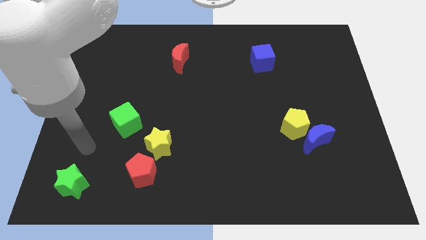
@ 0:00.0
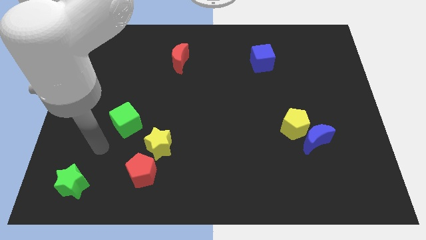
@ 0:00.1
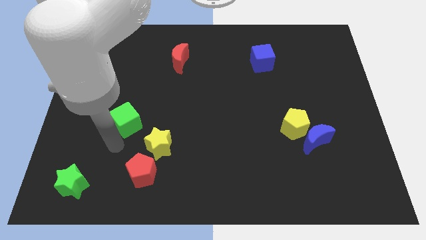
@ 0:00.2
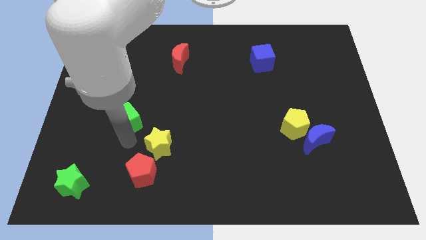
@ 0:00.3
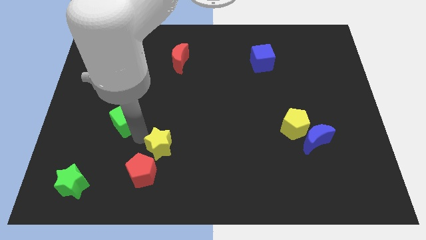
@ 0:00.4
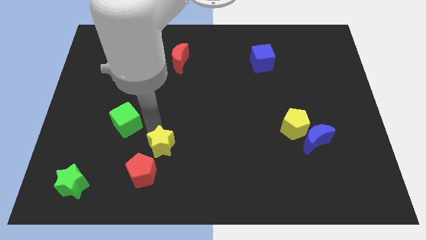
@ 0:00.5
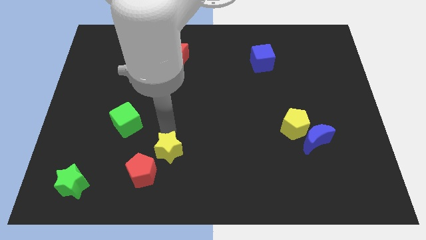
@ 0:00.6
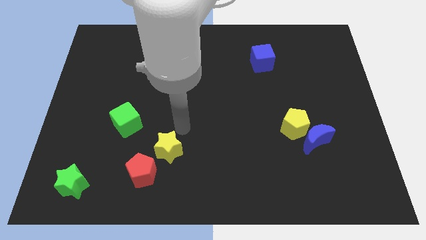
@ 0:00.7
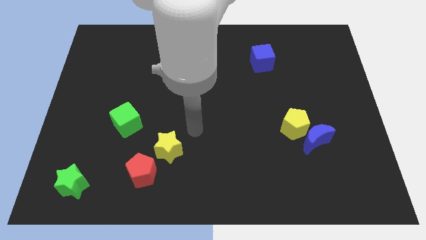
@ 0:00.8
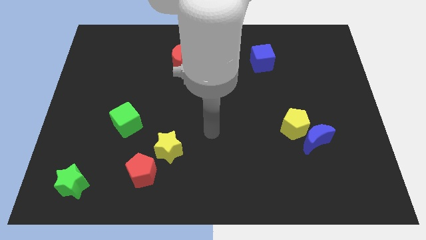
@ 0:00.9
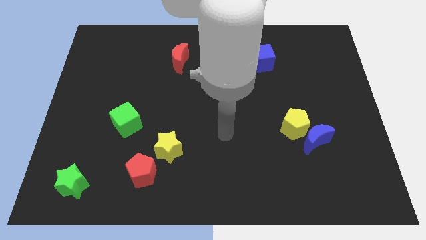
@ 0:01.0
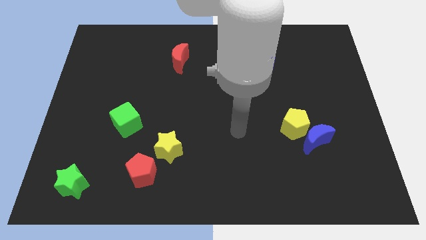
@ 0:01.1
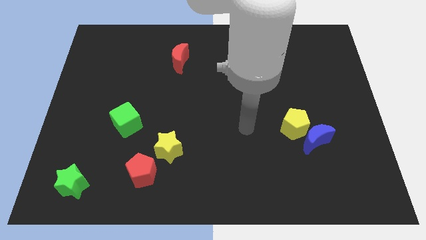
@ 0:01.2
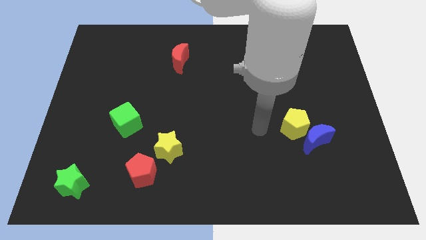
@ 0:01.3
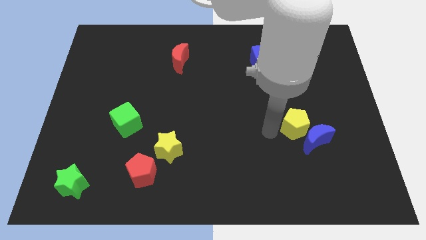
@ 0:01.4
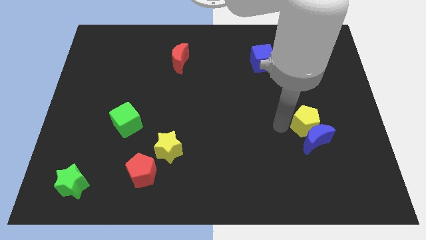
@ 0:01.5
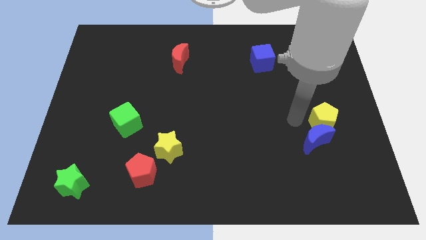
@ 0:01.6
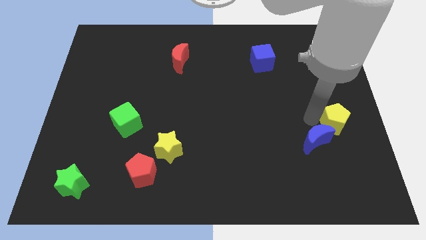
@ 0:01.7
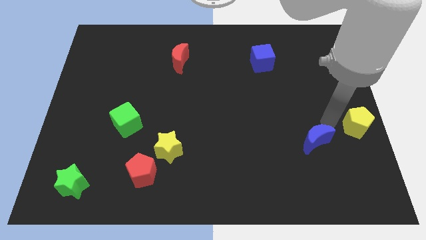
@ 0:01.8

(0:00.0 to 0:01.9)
move the blue moon away from the yellow pentagon

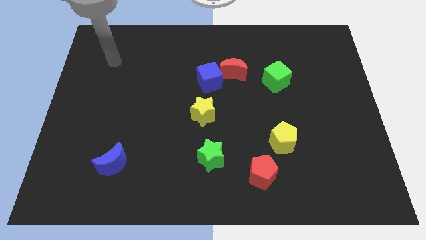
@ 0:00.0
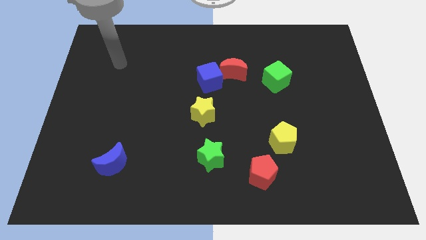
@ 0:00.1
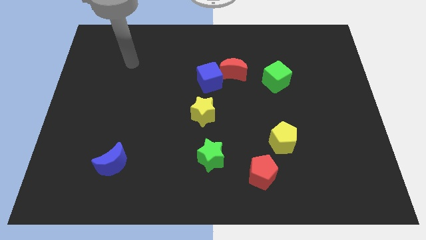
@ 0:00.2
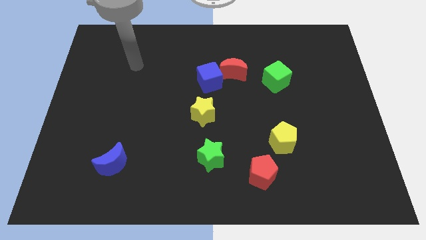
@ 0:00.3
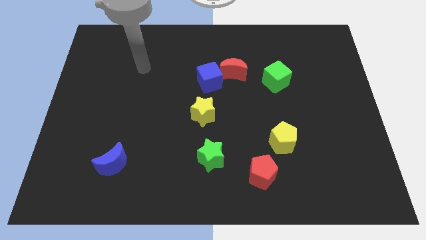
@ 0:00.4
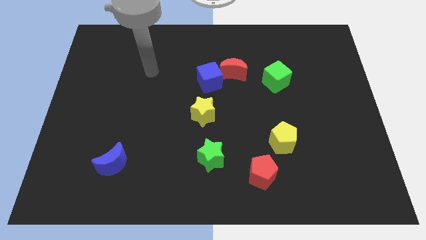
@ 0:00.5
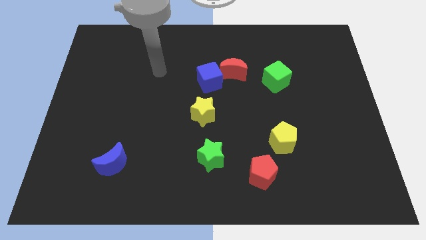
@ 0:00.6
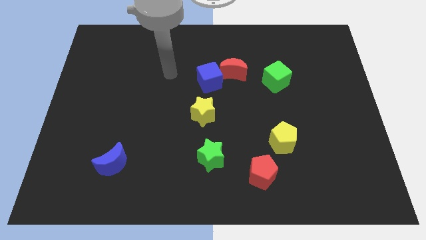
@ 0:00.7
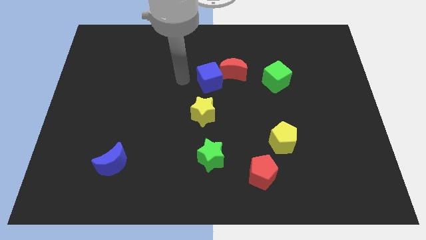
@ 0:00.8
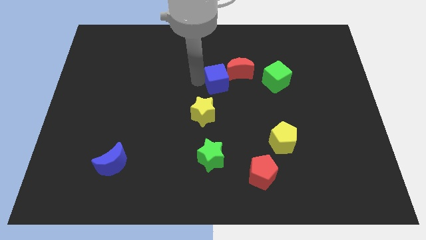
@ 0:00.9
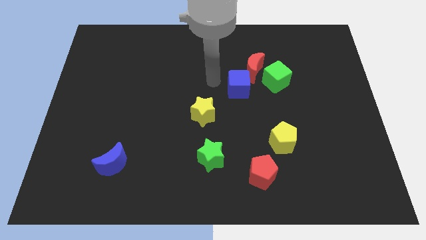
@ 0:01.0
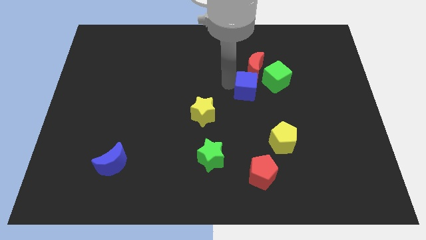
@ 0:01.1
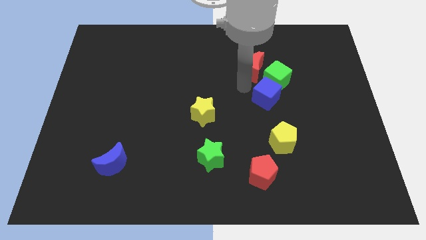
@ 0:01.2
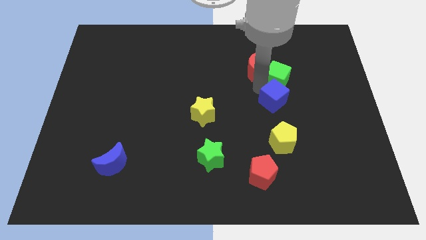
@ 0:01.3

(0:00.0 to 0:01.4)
separate the red moon from the blue cube

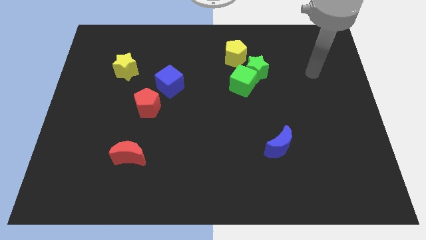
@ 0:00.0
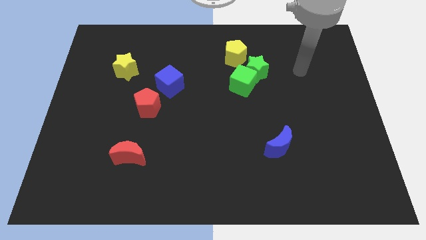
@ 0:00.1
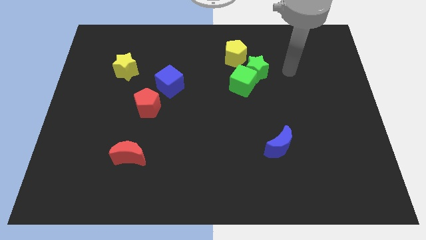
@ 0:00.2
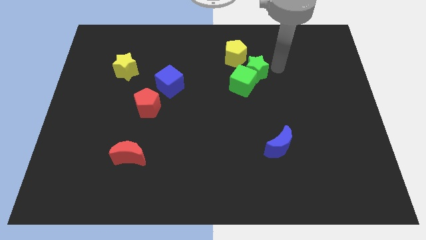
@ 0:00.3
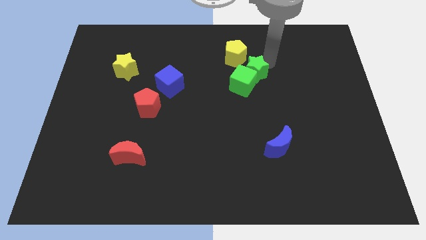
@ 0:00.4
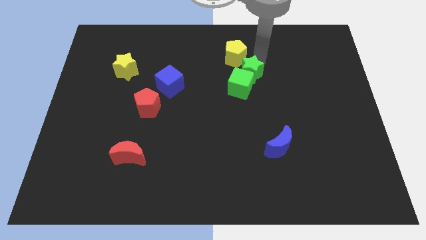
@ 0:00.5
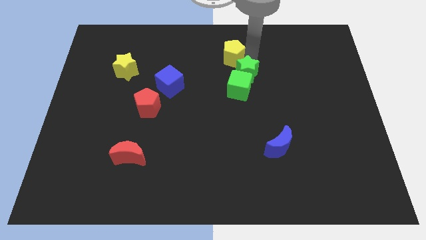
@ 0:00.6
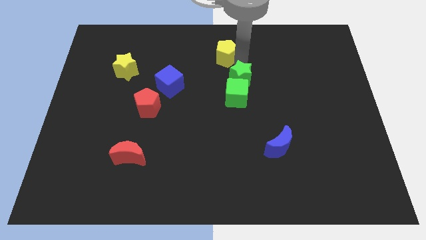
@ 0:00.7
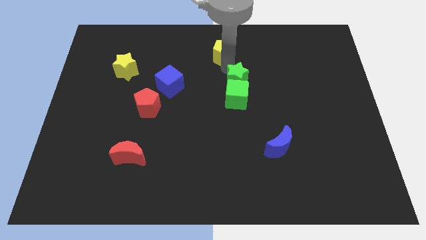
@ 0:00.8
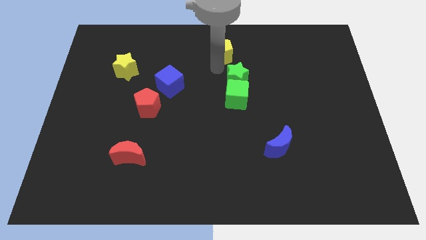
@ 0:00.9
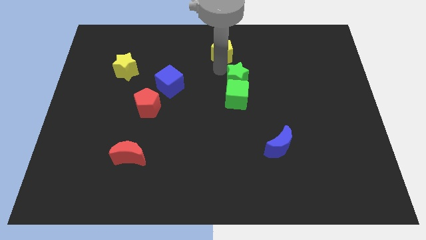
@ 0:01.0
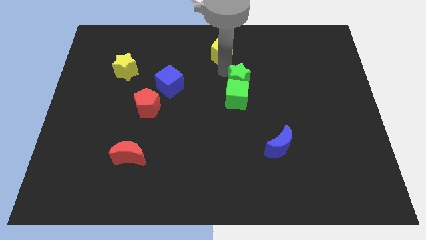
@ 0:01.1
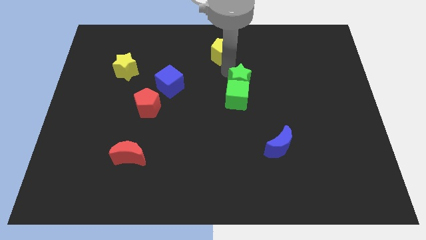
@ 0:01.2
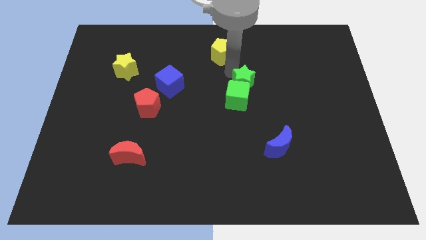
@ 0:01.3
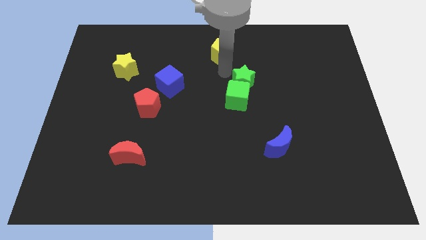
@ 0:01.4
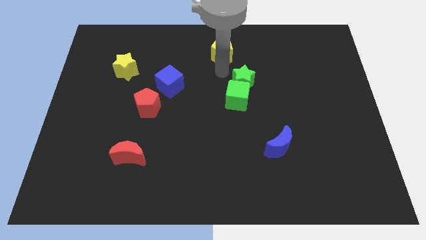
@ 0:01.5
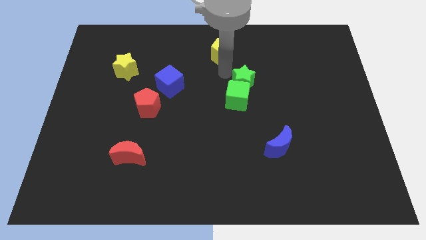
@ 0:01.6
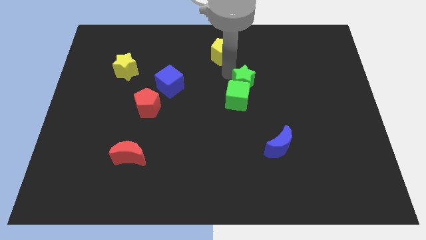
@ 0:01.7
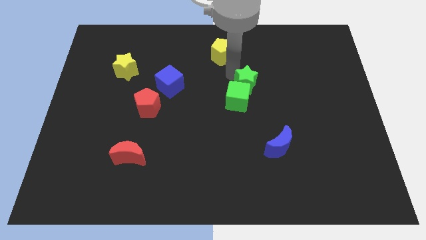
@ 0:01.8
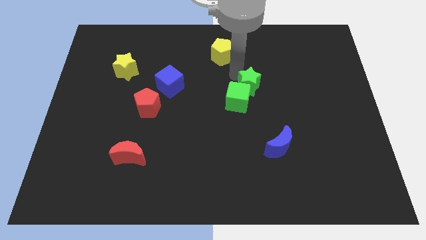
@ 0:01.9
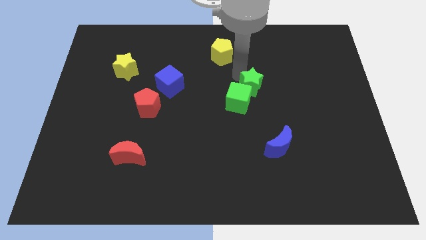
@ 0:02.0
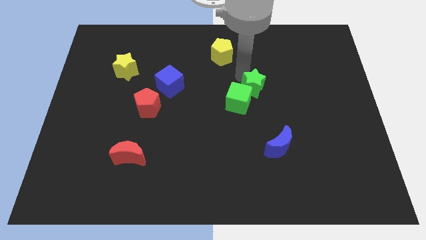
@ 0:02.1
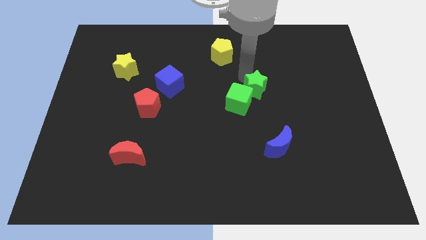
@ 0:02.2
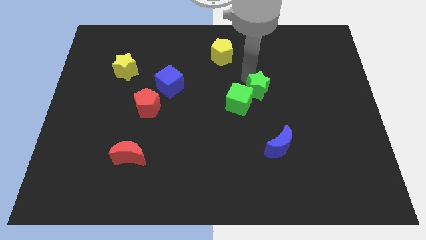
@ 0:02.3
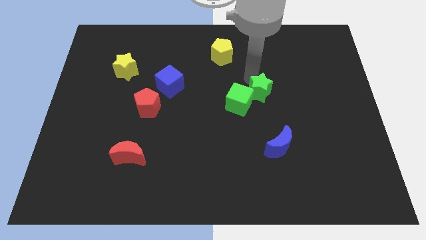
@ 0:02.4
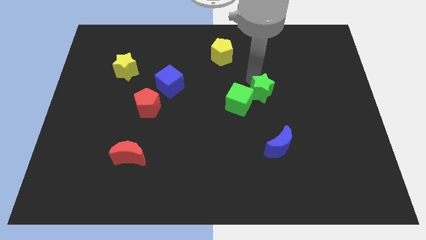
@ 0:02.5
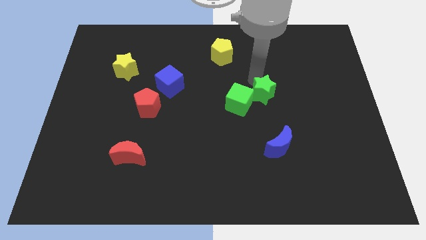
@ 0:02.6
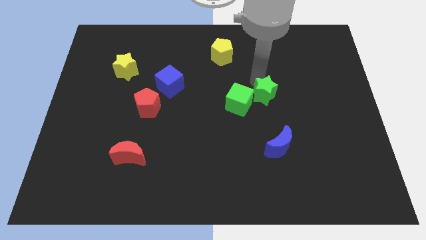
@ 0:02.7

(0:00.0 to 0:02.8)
pull the green star apart from the green cube and yellow pentagon

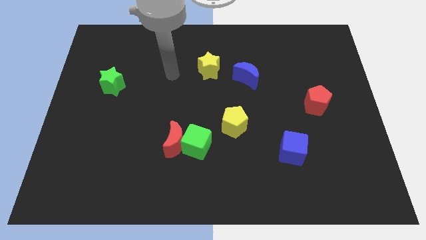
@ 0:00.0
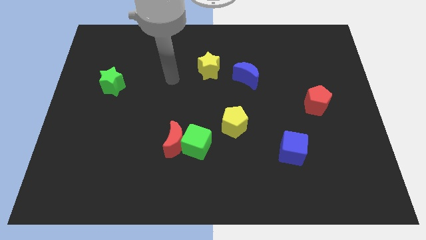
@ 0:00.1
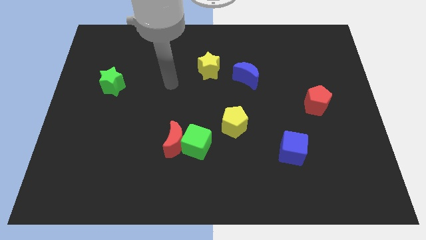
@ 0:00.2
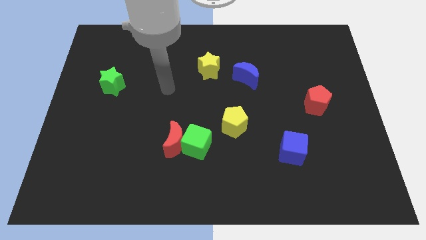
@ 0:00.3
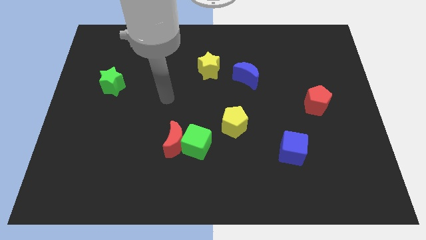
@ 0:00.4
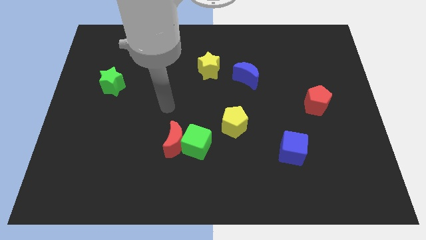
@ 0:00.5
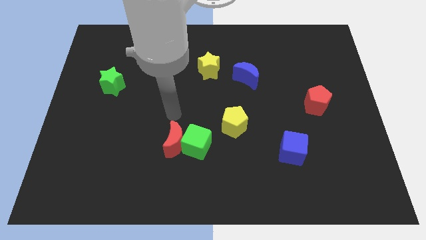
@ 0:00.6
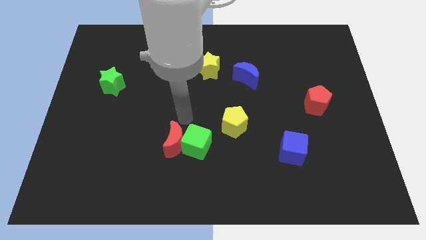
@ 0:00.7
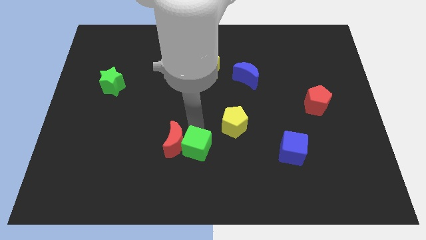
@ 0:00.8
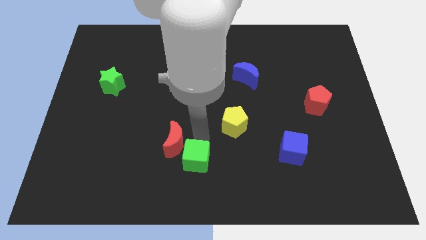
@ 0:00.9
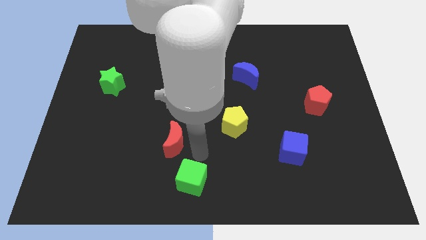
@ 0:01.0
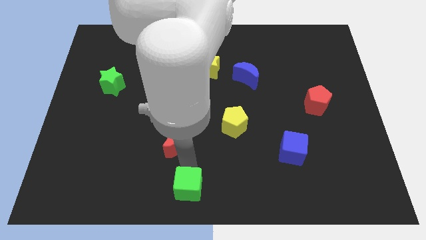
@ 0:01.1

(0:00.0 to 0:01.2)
separate the red moon from the green cube

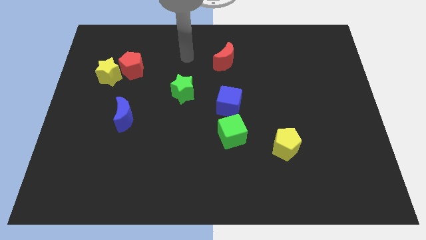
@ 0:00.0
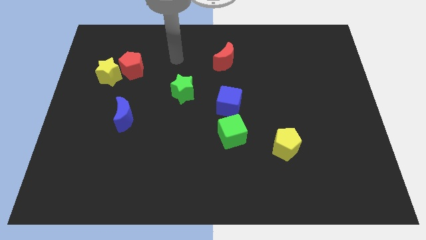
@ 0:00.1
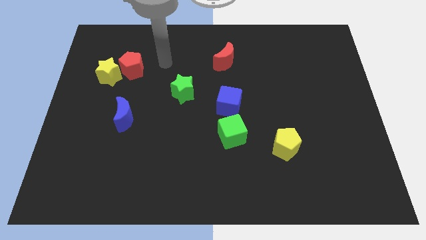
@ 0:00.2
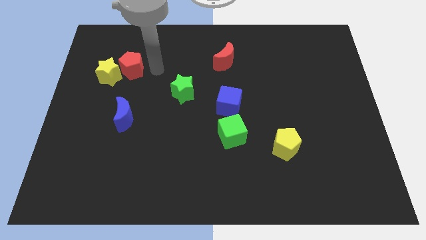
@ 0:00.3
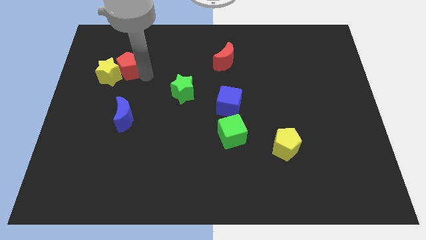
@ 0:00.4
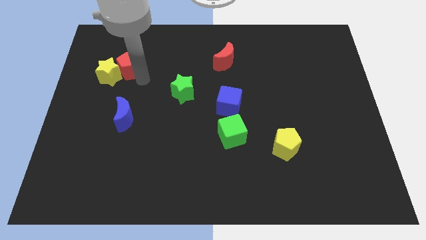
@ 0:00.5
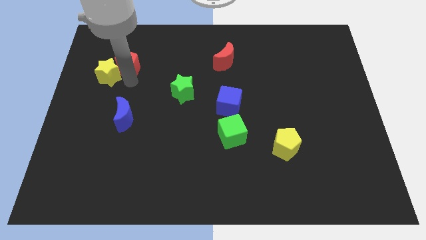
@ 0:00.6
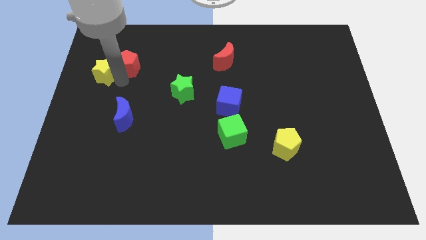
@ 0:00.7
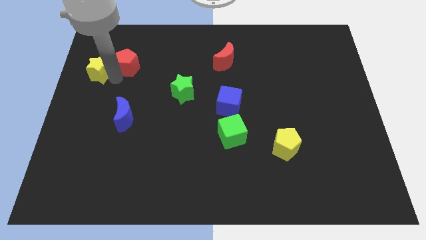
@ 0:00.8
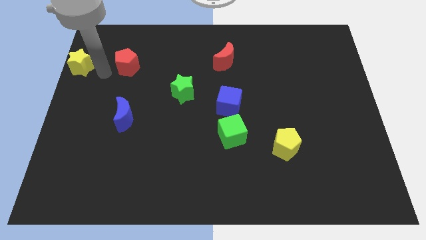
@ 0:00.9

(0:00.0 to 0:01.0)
separate the red pentagon from the yellow star

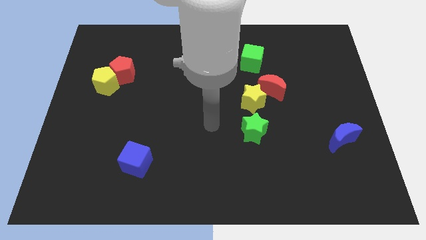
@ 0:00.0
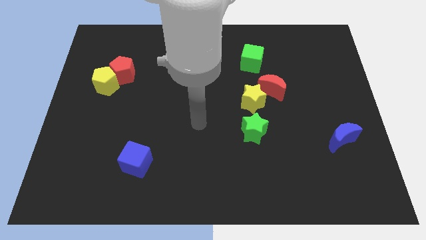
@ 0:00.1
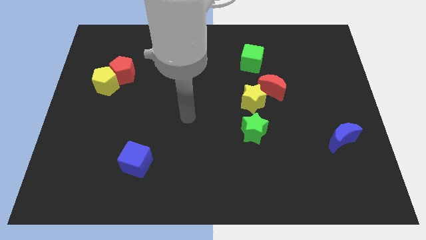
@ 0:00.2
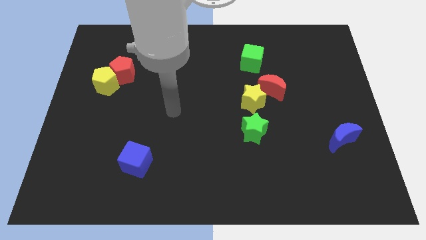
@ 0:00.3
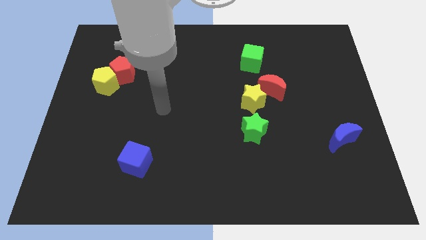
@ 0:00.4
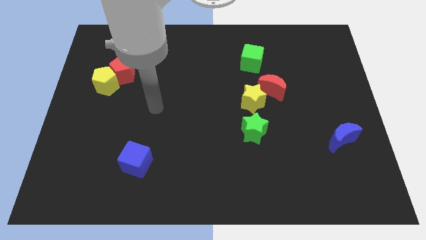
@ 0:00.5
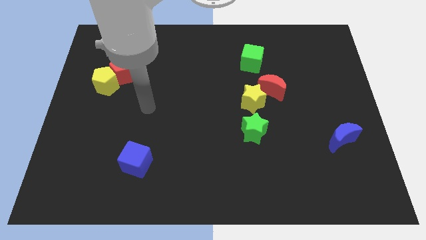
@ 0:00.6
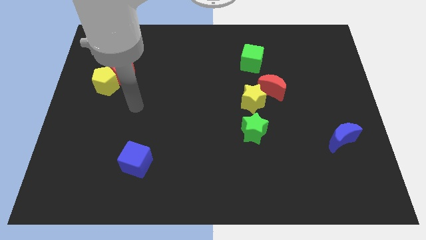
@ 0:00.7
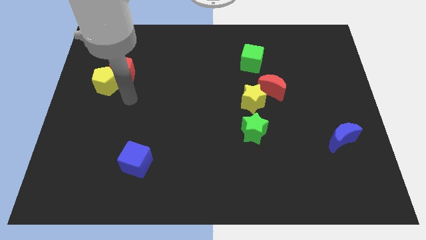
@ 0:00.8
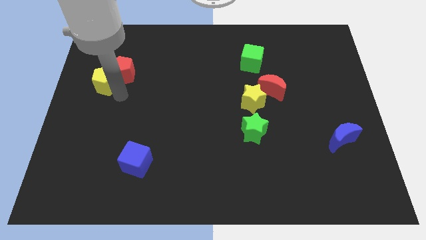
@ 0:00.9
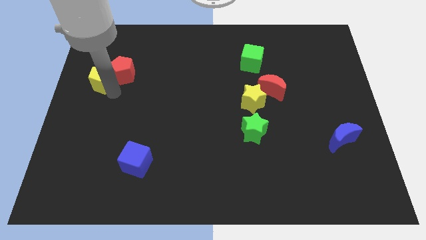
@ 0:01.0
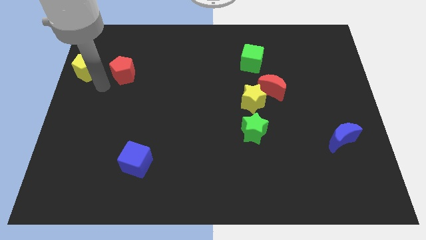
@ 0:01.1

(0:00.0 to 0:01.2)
separate the red pentagon from the yellow pentagon
